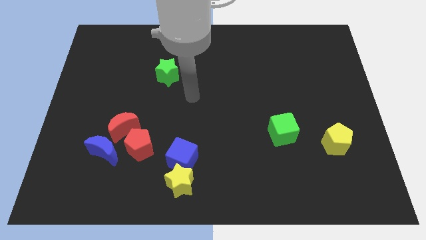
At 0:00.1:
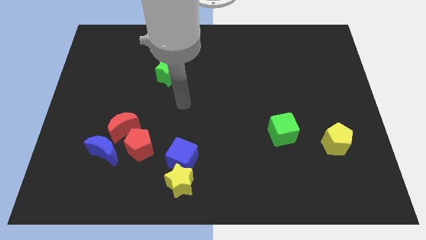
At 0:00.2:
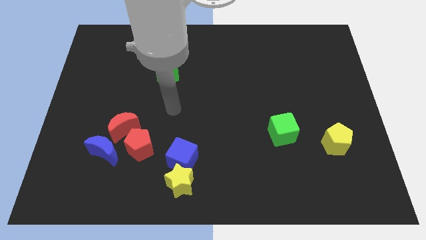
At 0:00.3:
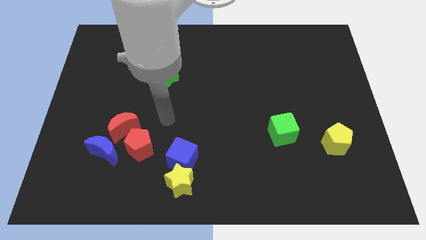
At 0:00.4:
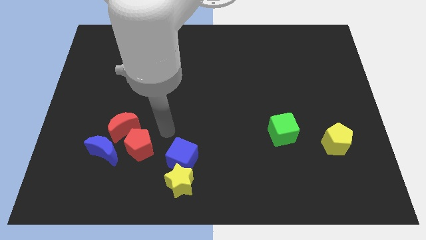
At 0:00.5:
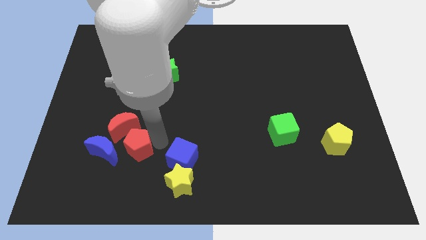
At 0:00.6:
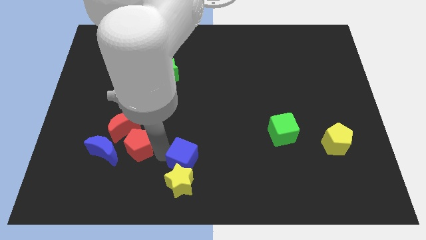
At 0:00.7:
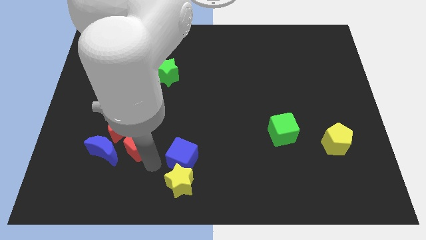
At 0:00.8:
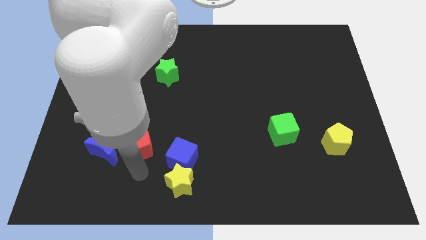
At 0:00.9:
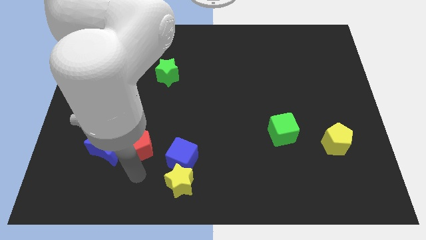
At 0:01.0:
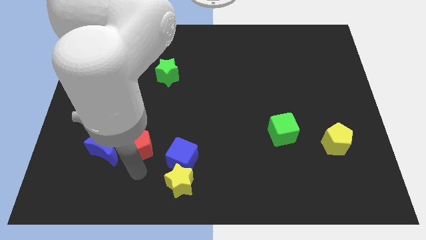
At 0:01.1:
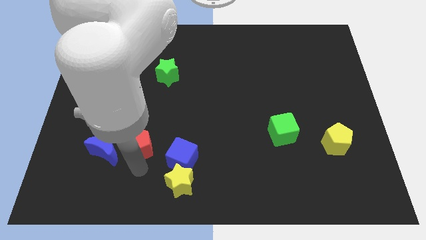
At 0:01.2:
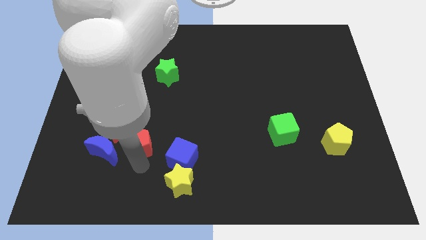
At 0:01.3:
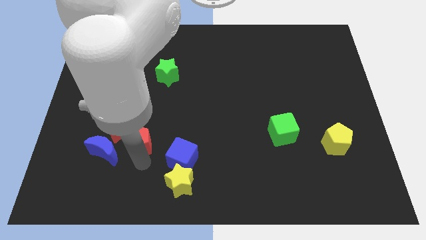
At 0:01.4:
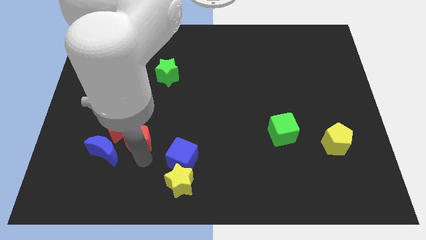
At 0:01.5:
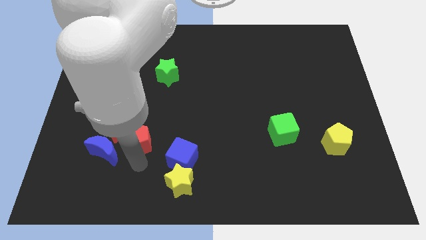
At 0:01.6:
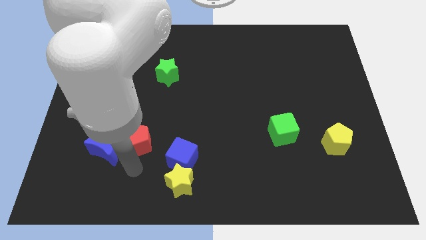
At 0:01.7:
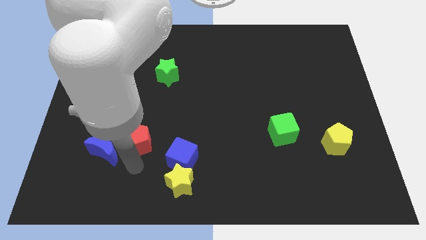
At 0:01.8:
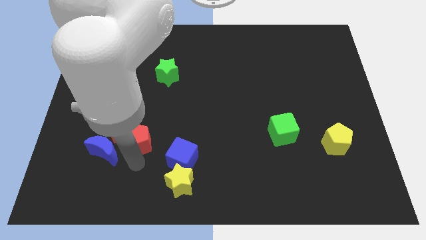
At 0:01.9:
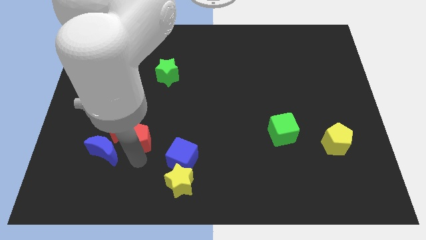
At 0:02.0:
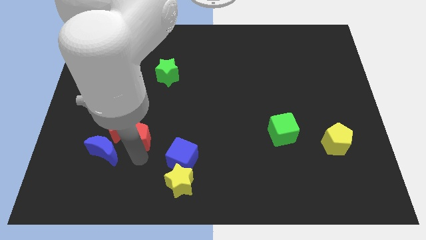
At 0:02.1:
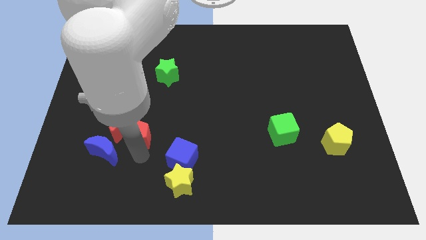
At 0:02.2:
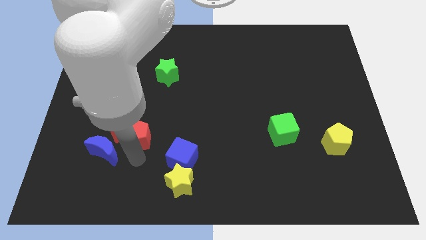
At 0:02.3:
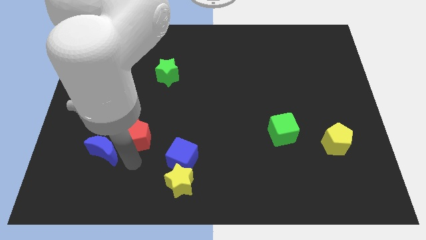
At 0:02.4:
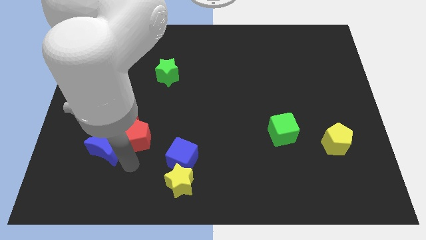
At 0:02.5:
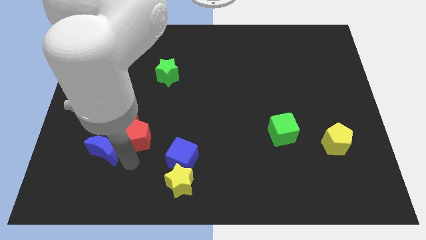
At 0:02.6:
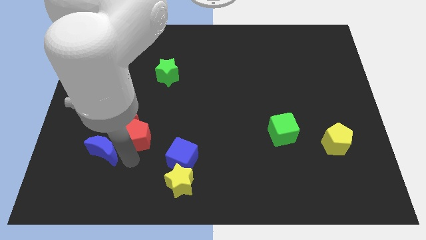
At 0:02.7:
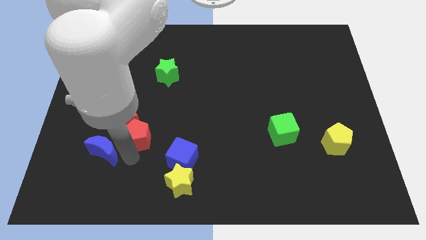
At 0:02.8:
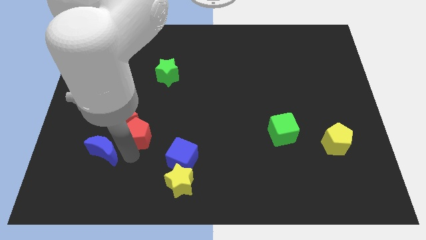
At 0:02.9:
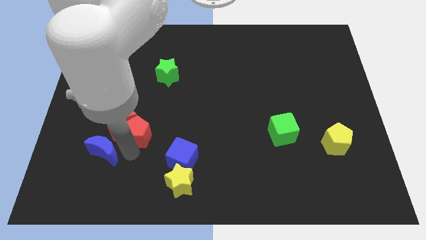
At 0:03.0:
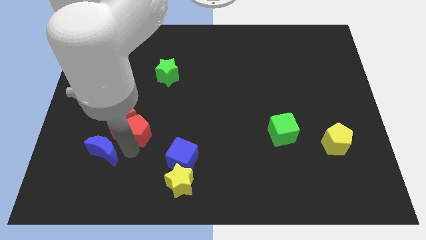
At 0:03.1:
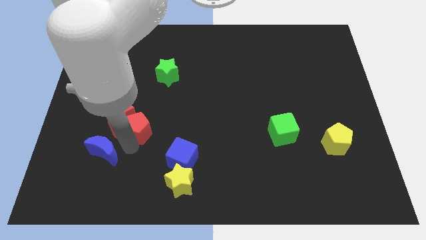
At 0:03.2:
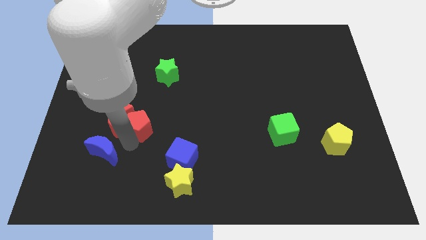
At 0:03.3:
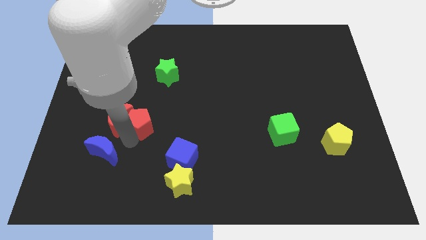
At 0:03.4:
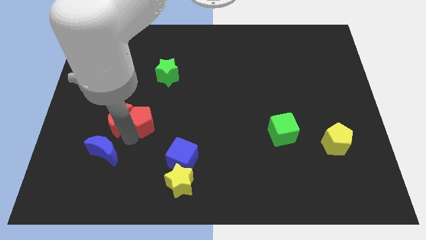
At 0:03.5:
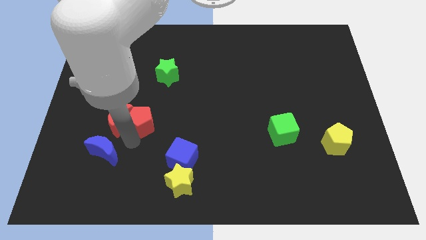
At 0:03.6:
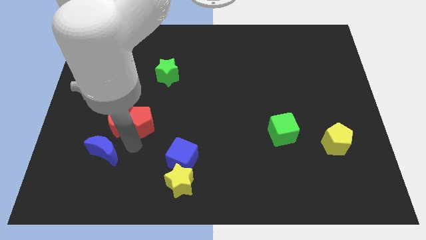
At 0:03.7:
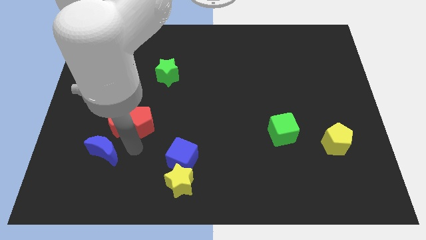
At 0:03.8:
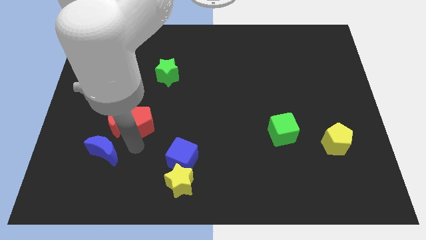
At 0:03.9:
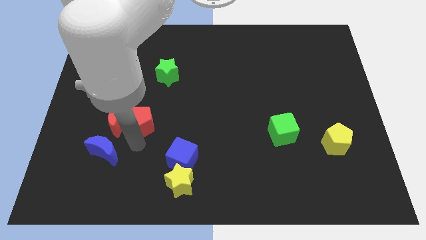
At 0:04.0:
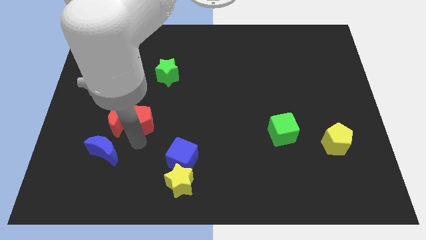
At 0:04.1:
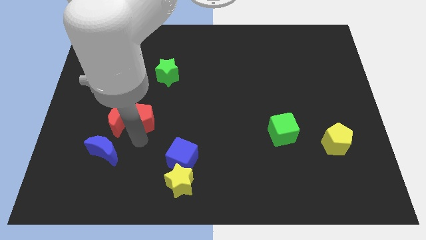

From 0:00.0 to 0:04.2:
push the red pentagon up a bit

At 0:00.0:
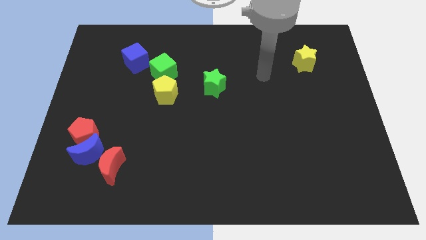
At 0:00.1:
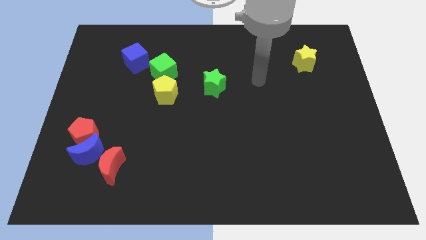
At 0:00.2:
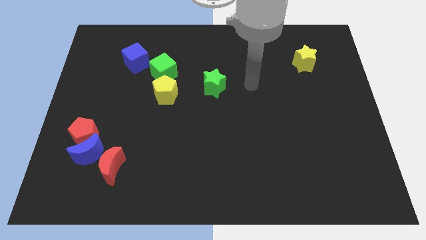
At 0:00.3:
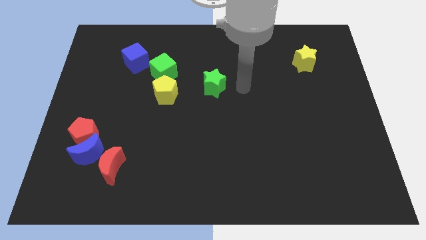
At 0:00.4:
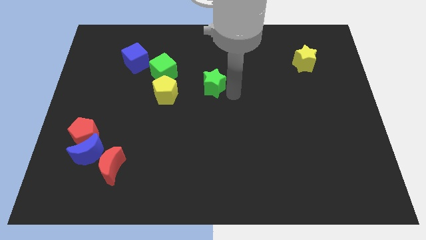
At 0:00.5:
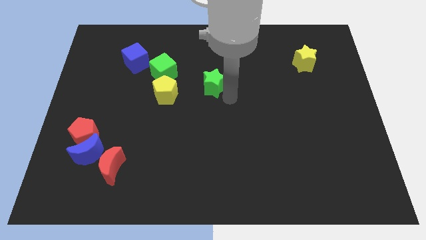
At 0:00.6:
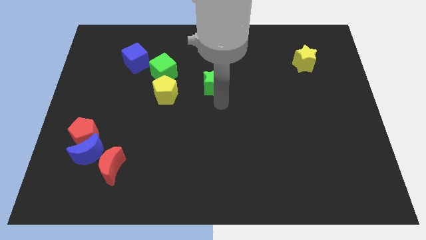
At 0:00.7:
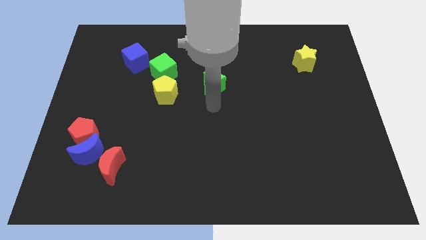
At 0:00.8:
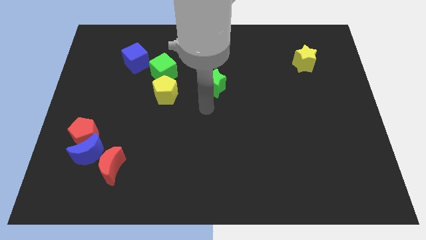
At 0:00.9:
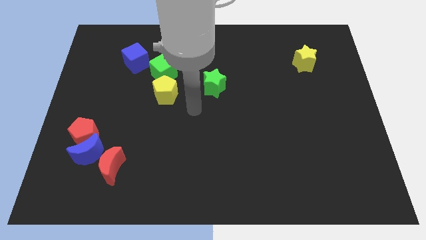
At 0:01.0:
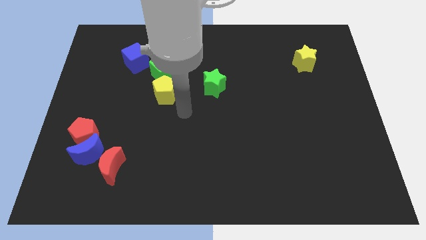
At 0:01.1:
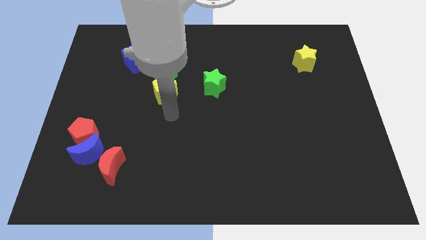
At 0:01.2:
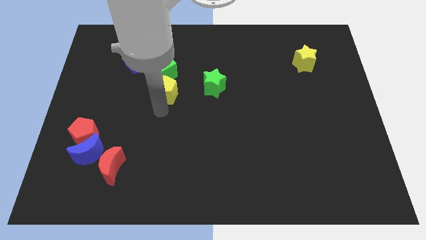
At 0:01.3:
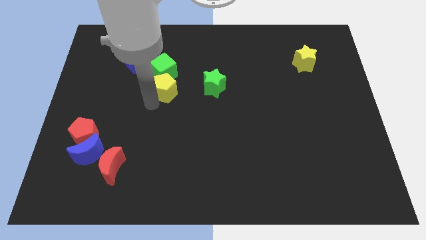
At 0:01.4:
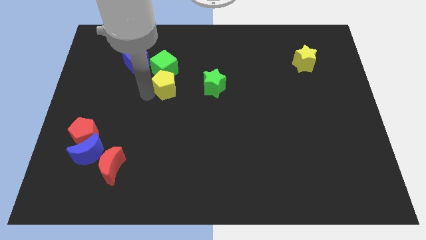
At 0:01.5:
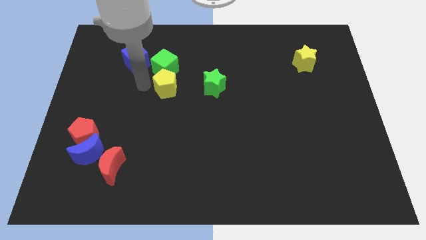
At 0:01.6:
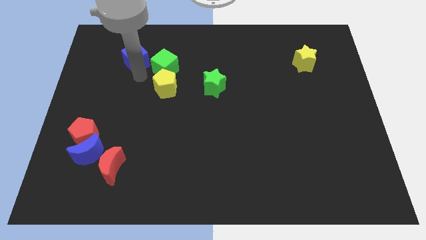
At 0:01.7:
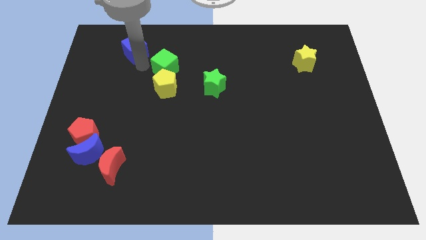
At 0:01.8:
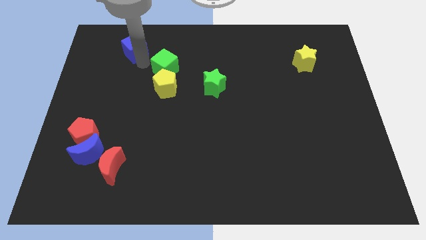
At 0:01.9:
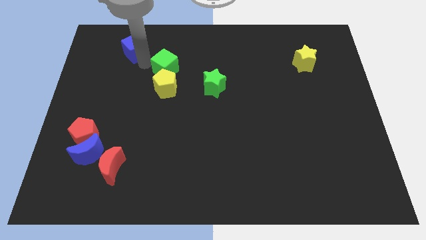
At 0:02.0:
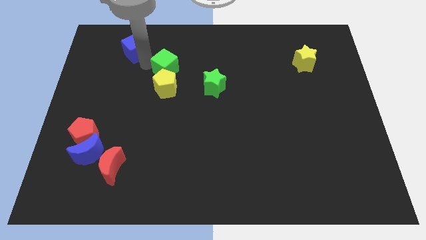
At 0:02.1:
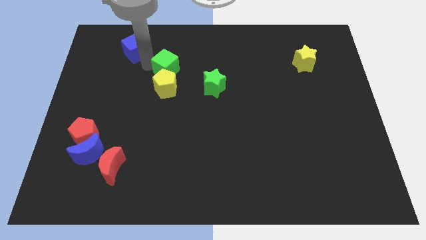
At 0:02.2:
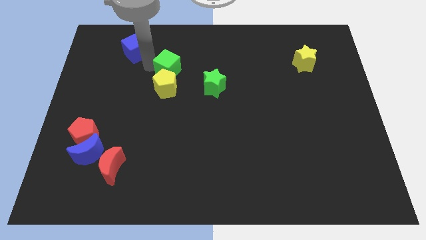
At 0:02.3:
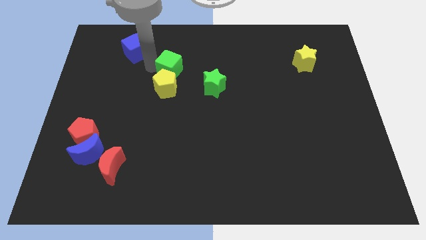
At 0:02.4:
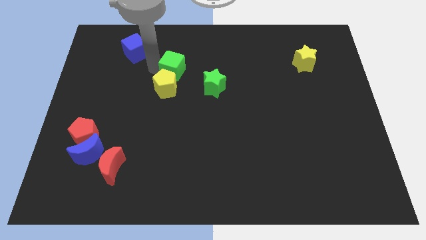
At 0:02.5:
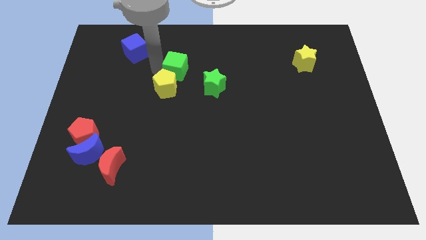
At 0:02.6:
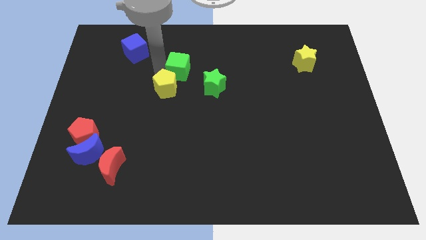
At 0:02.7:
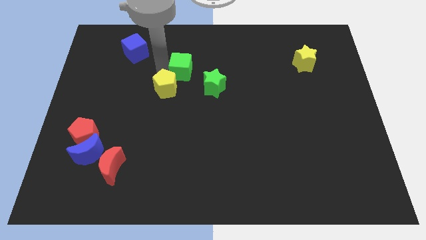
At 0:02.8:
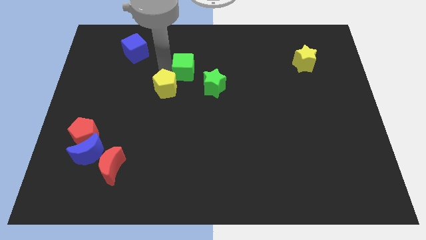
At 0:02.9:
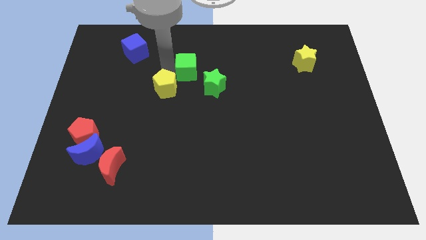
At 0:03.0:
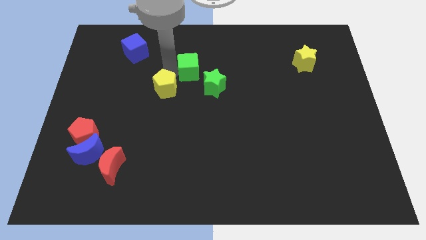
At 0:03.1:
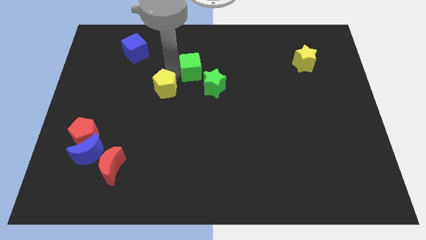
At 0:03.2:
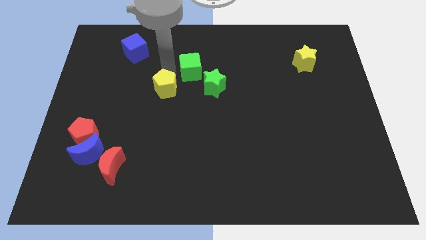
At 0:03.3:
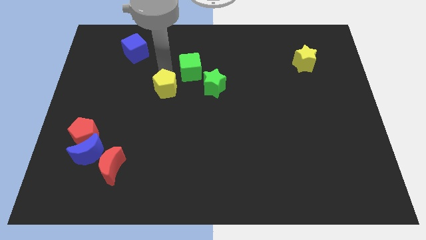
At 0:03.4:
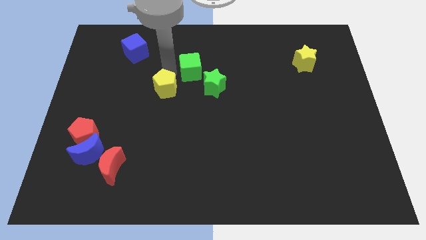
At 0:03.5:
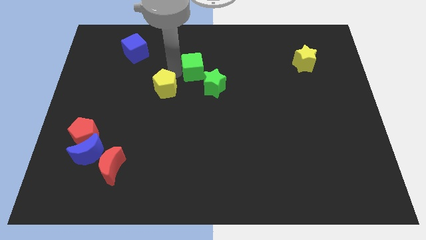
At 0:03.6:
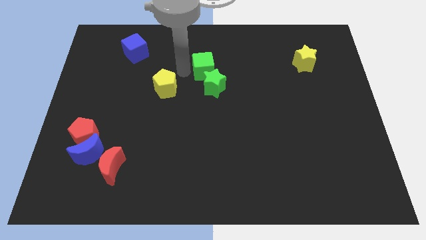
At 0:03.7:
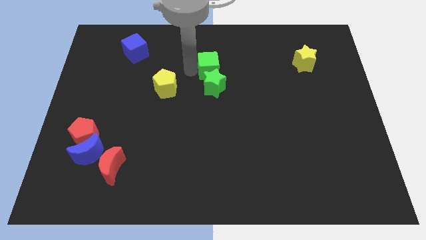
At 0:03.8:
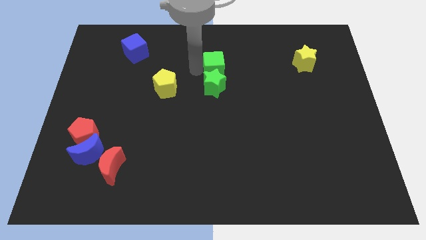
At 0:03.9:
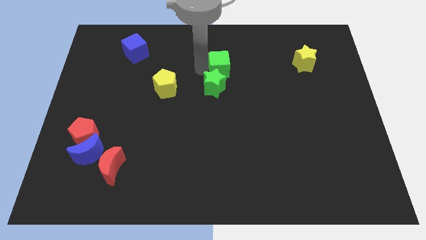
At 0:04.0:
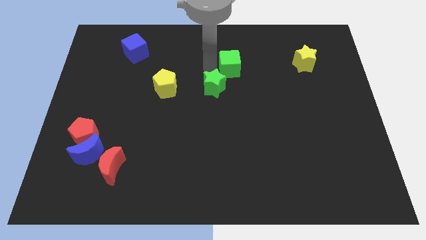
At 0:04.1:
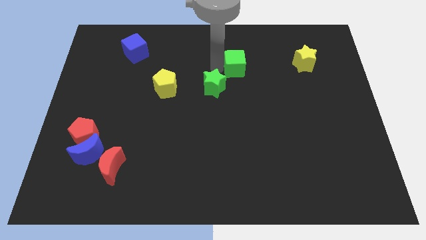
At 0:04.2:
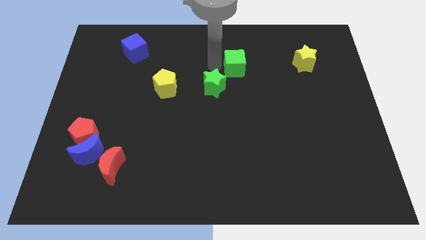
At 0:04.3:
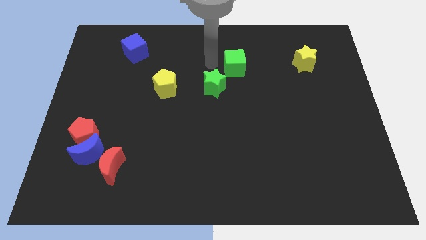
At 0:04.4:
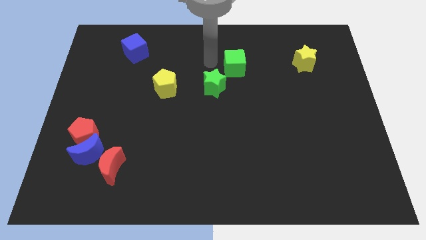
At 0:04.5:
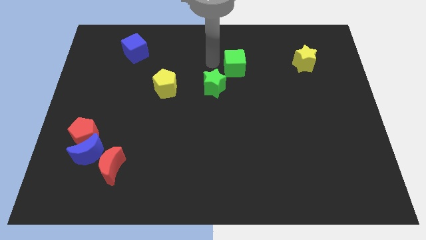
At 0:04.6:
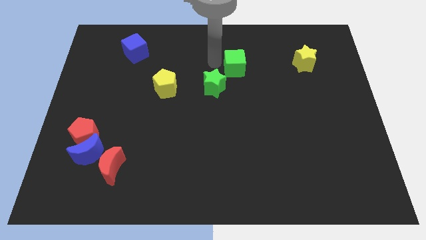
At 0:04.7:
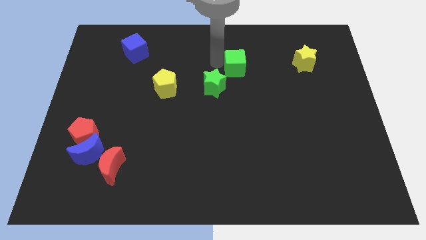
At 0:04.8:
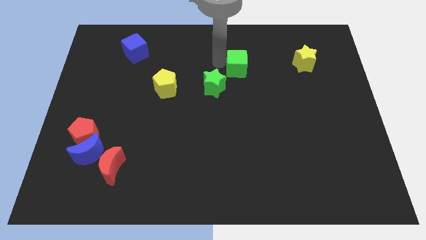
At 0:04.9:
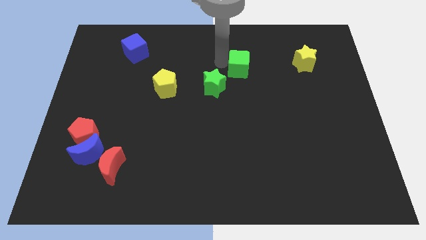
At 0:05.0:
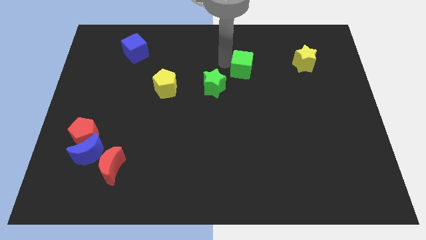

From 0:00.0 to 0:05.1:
push the green cube to the right
